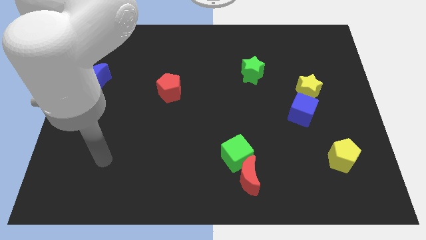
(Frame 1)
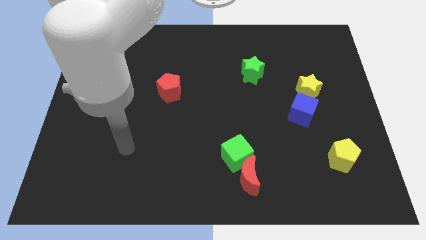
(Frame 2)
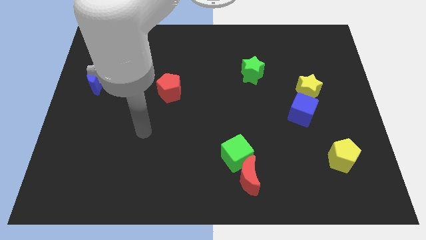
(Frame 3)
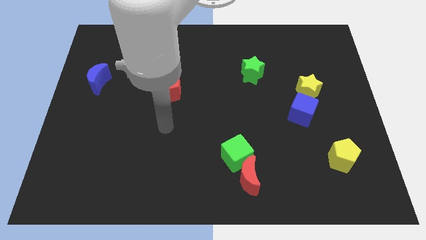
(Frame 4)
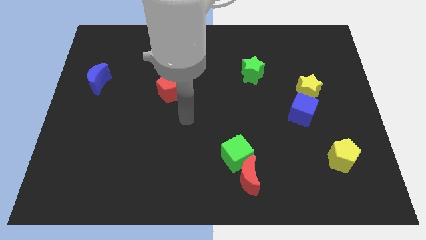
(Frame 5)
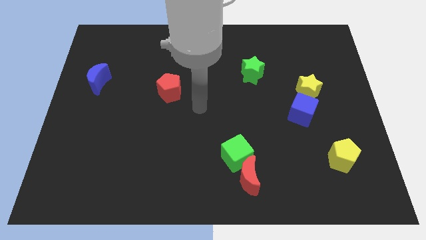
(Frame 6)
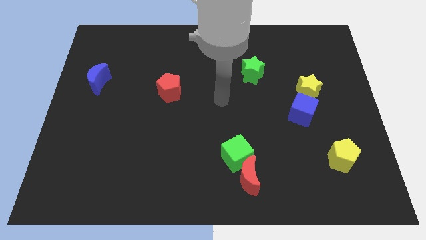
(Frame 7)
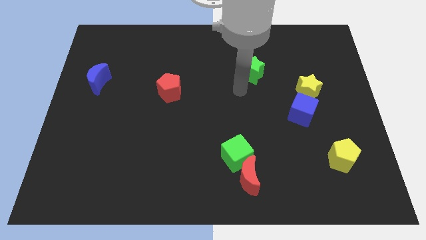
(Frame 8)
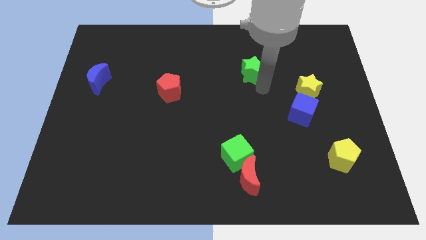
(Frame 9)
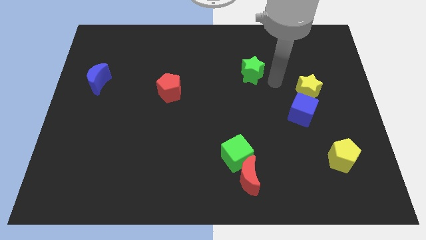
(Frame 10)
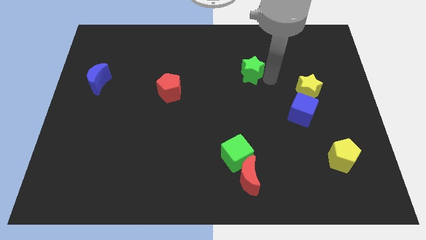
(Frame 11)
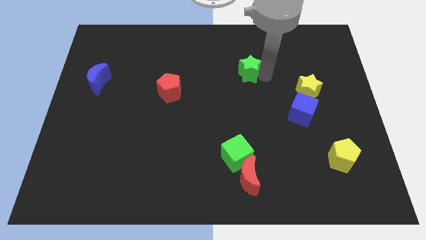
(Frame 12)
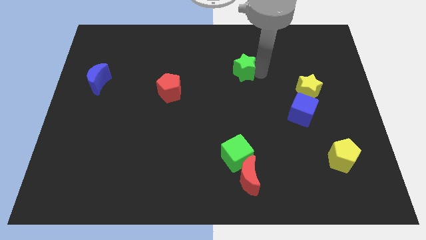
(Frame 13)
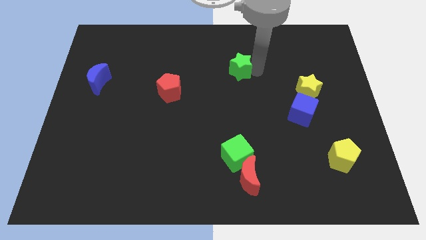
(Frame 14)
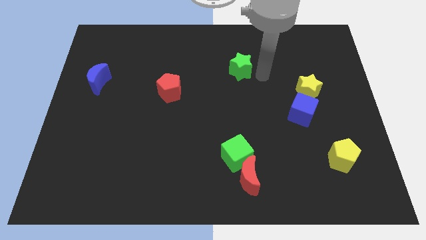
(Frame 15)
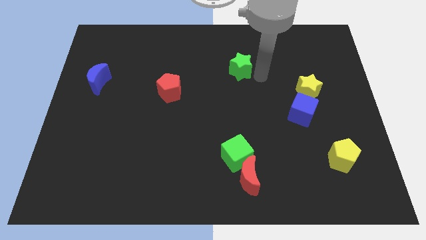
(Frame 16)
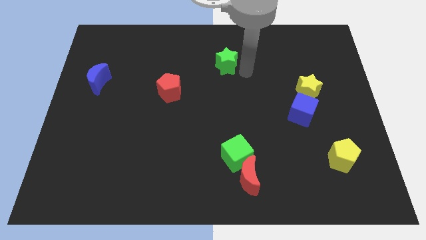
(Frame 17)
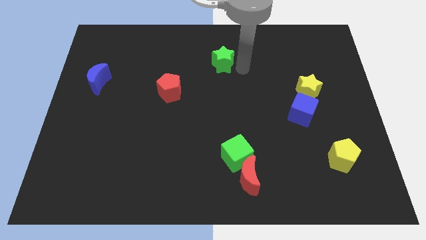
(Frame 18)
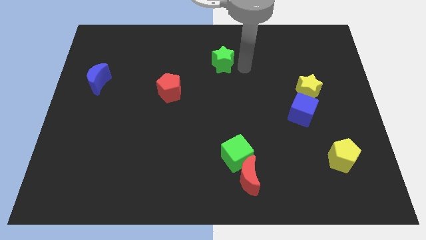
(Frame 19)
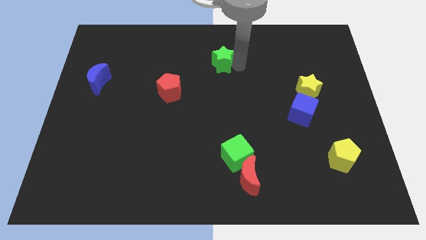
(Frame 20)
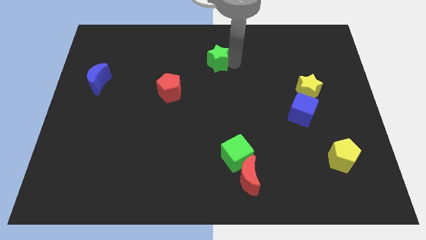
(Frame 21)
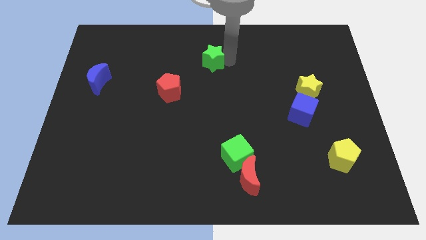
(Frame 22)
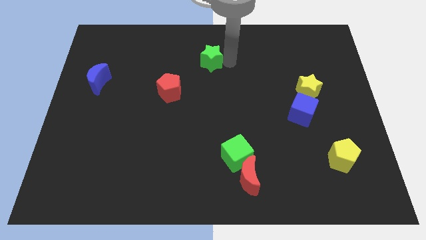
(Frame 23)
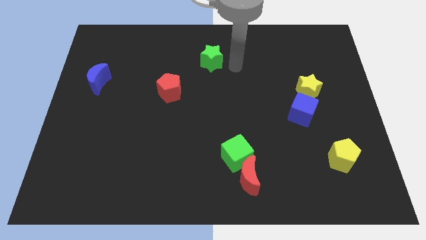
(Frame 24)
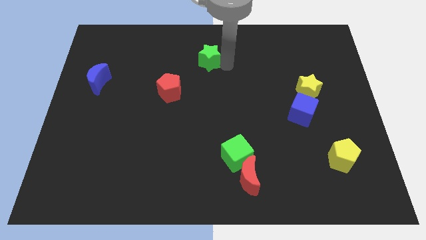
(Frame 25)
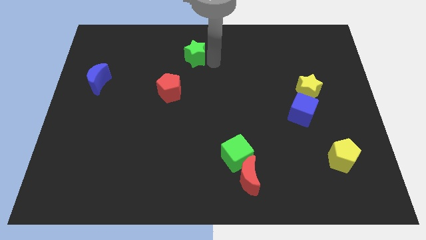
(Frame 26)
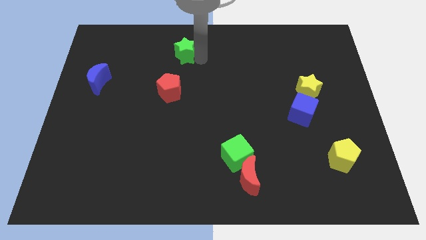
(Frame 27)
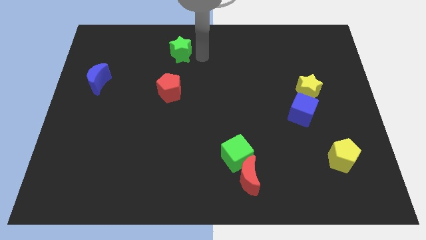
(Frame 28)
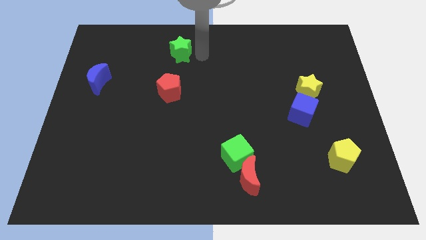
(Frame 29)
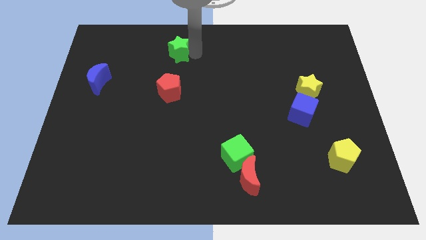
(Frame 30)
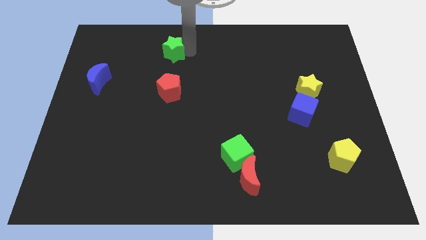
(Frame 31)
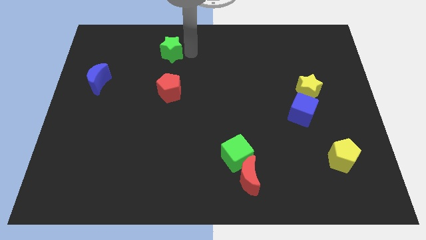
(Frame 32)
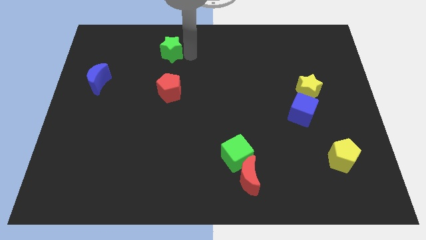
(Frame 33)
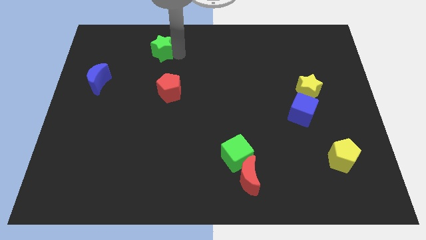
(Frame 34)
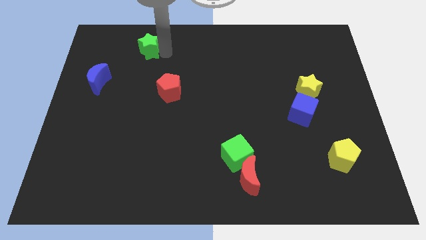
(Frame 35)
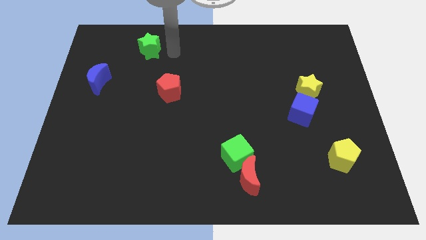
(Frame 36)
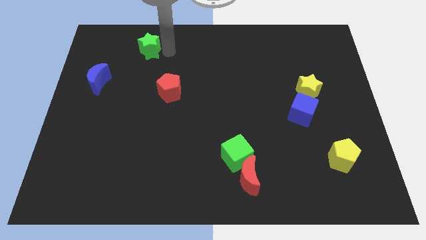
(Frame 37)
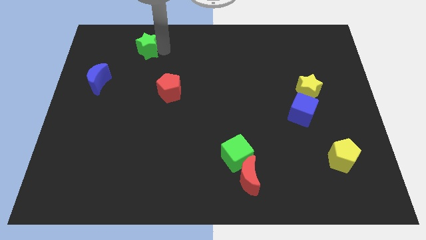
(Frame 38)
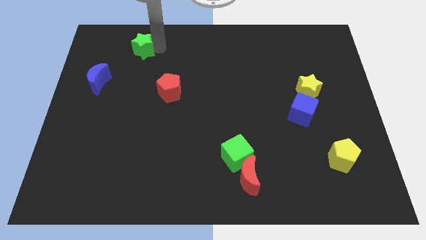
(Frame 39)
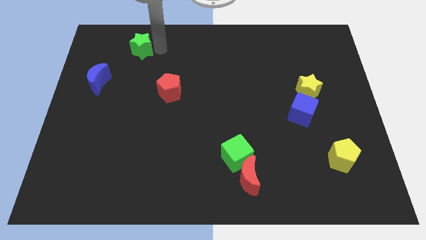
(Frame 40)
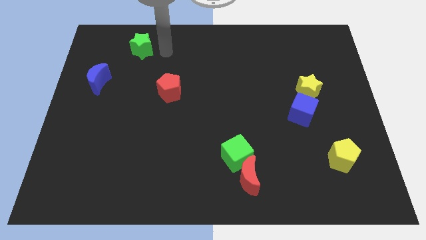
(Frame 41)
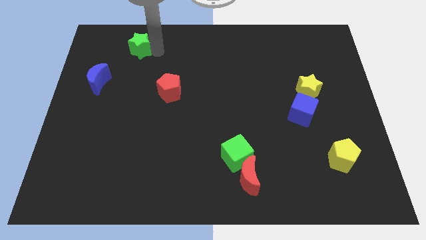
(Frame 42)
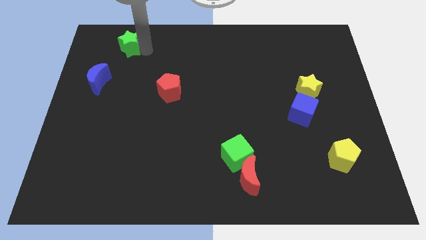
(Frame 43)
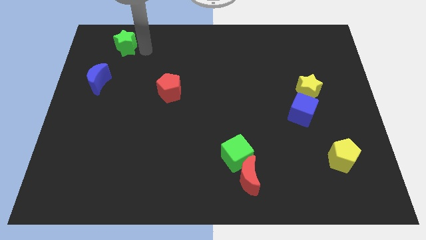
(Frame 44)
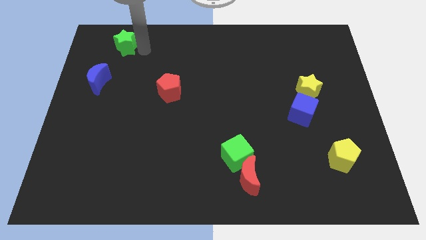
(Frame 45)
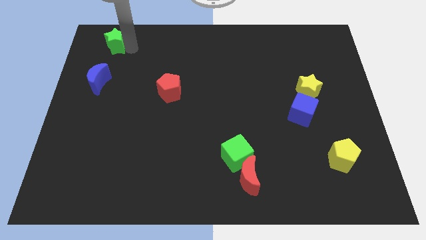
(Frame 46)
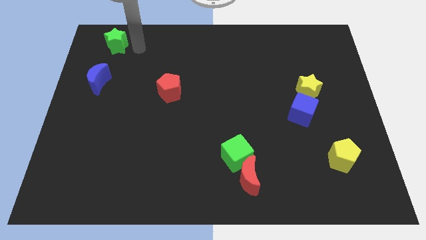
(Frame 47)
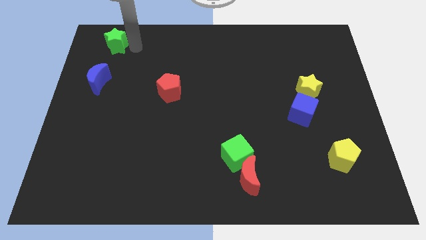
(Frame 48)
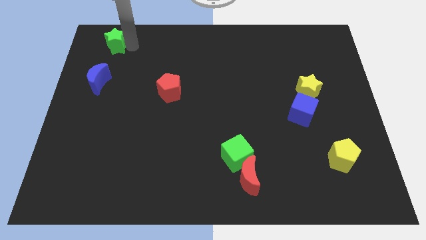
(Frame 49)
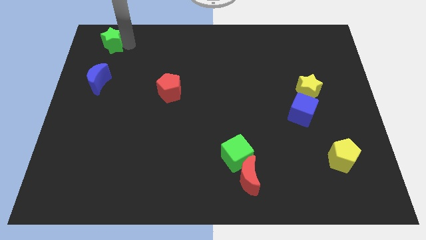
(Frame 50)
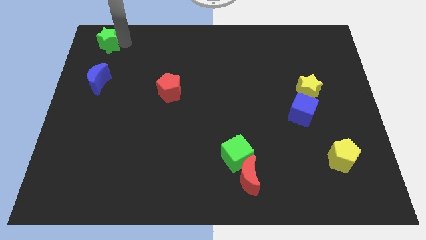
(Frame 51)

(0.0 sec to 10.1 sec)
push the green star to the top left

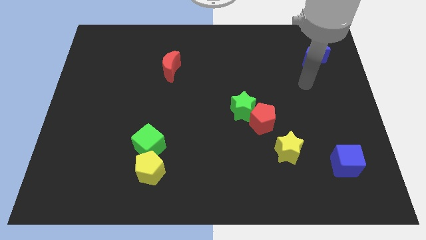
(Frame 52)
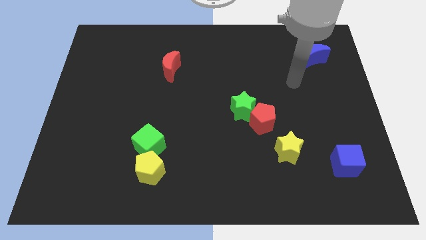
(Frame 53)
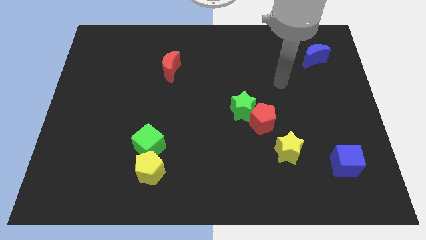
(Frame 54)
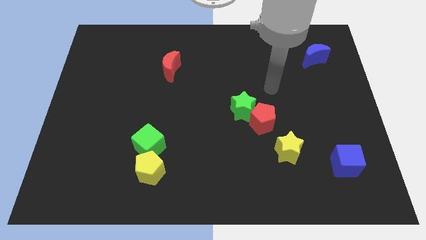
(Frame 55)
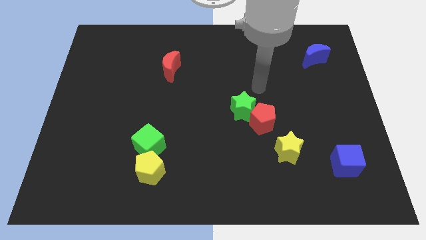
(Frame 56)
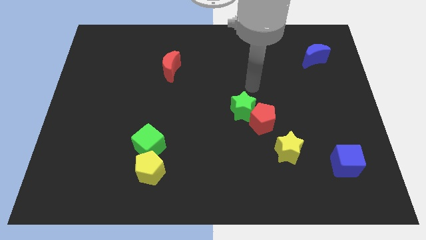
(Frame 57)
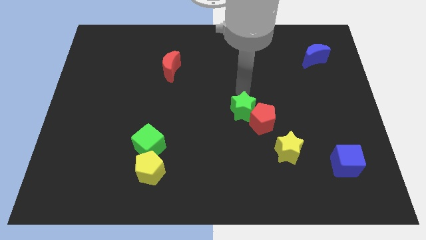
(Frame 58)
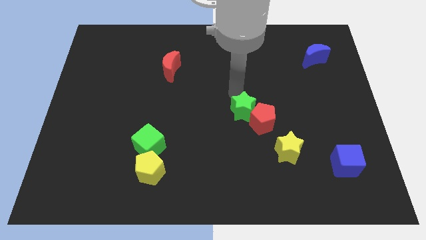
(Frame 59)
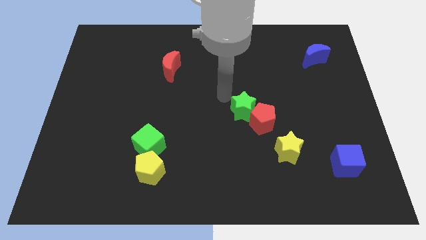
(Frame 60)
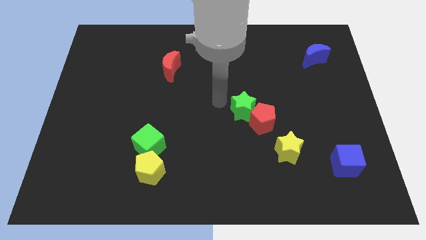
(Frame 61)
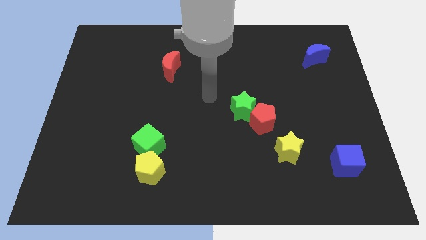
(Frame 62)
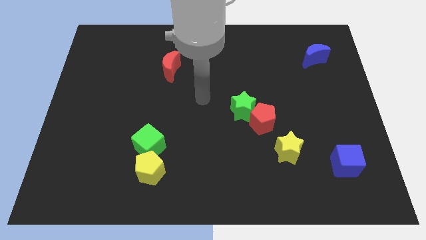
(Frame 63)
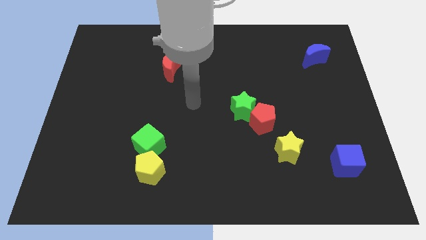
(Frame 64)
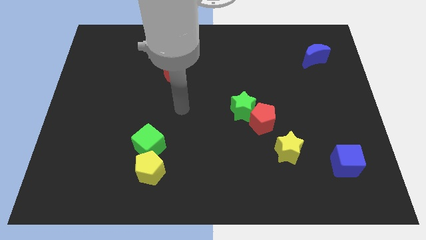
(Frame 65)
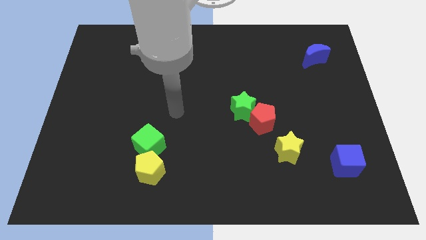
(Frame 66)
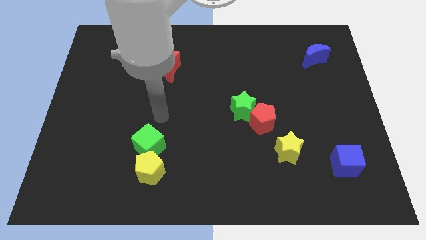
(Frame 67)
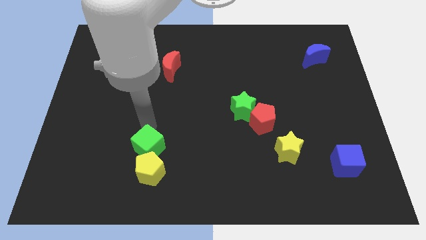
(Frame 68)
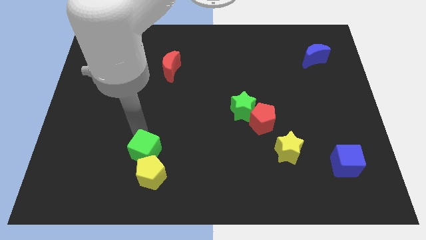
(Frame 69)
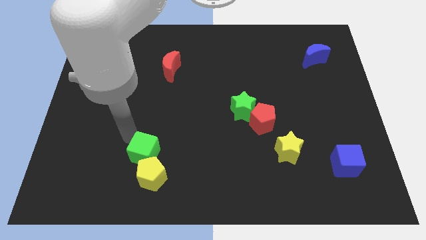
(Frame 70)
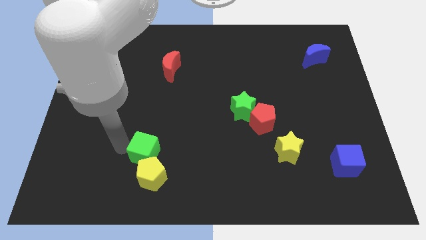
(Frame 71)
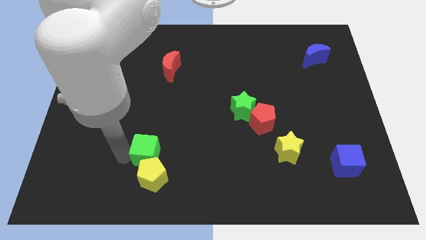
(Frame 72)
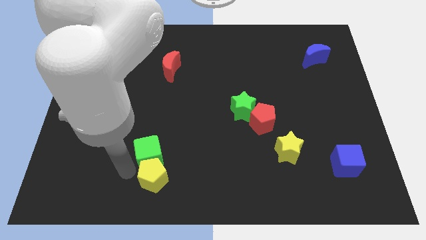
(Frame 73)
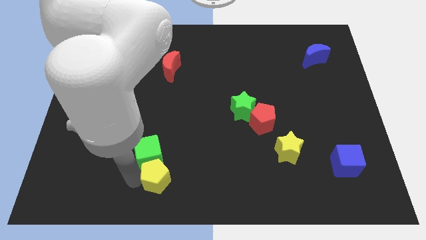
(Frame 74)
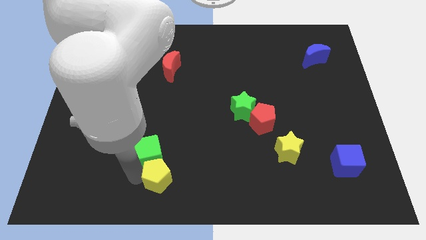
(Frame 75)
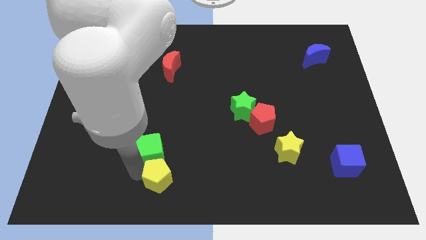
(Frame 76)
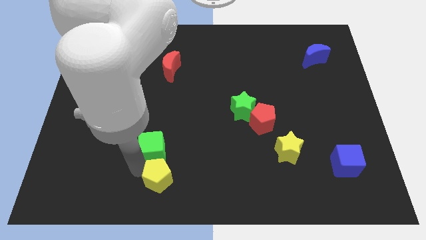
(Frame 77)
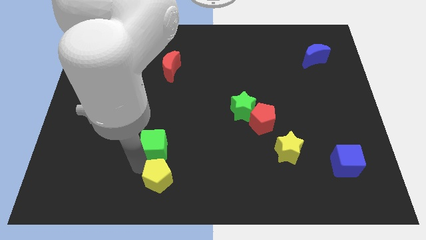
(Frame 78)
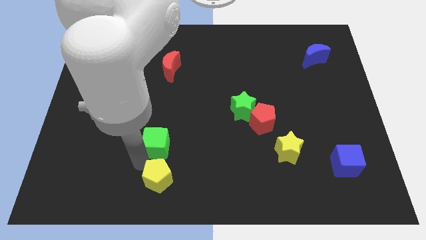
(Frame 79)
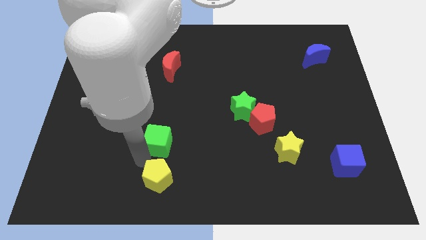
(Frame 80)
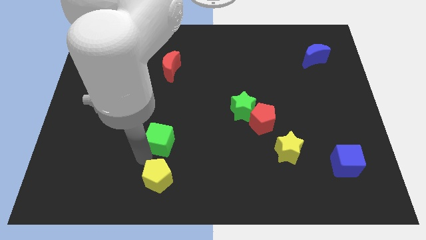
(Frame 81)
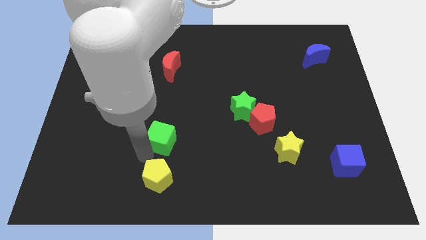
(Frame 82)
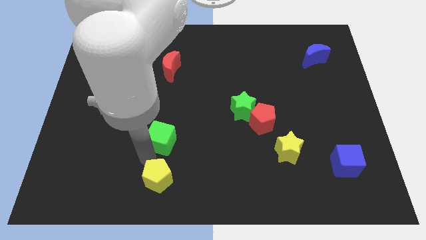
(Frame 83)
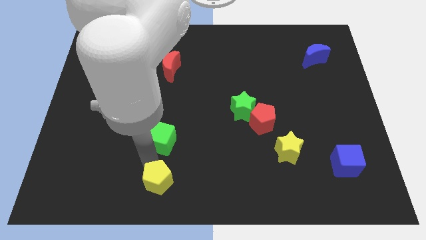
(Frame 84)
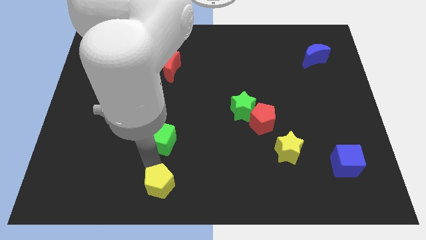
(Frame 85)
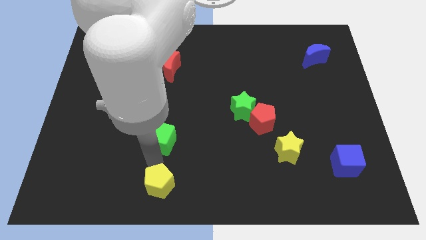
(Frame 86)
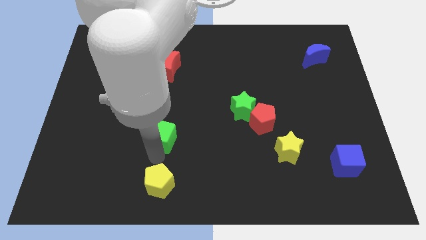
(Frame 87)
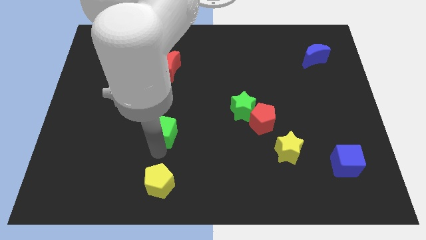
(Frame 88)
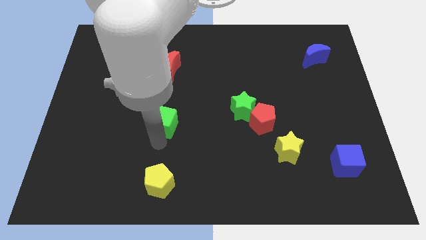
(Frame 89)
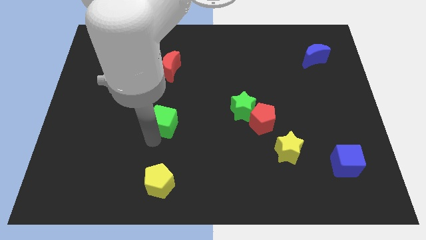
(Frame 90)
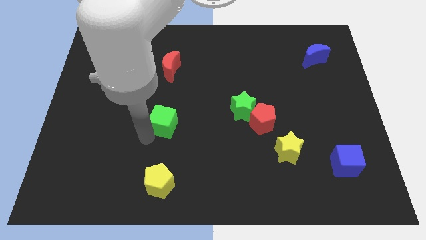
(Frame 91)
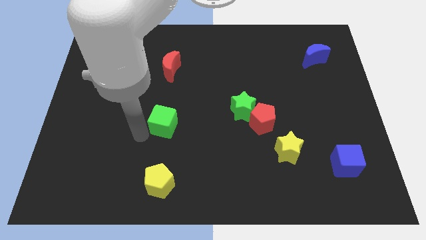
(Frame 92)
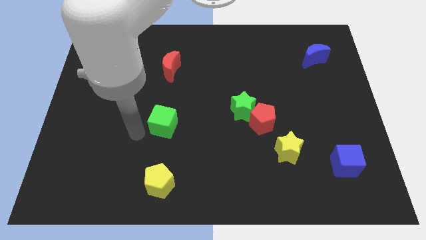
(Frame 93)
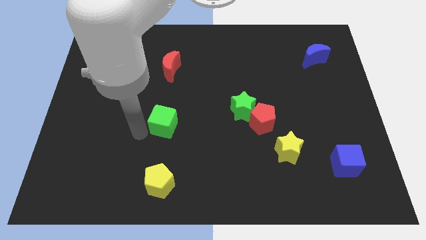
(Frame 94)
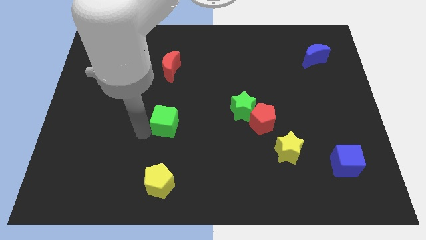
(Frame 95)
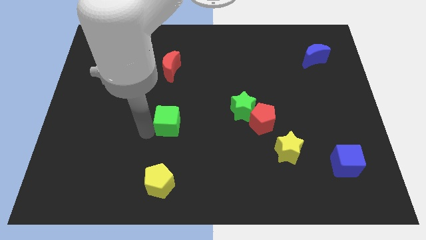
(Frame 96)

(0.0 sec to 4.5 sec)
move the green cube to the middle of the board
